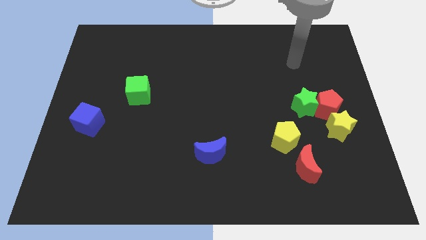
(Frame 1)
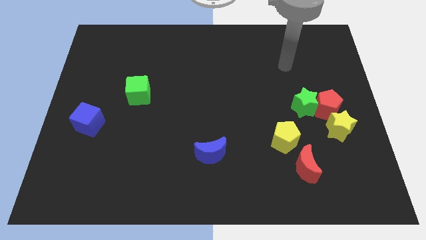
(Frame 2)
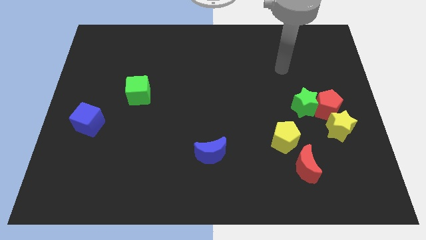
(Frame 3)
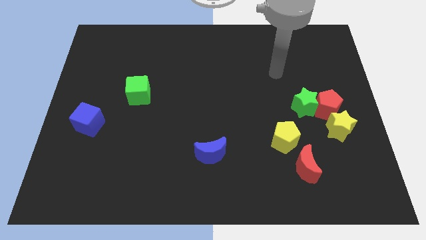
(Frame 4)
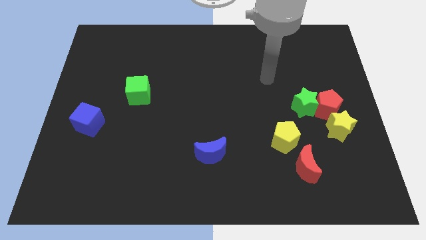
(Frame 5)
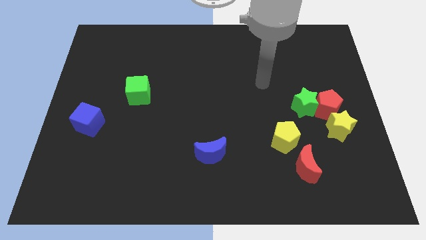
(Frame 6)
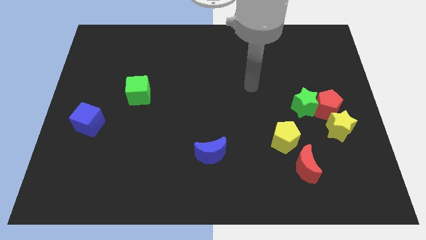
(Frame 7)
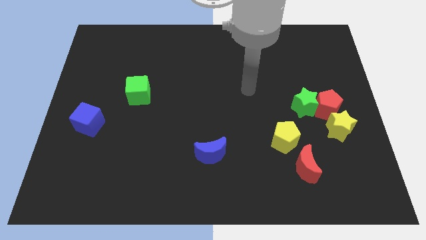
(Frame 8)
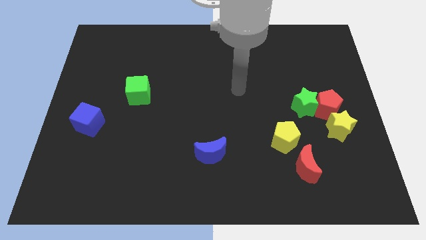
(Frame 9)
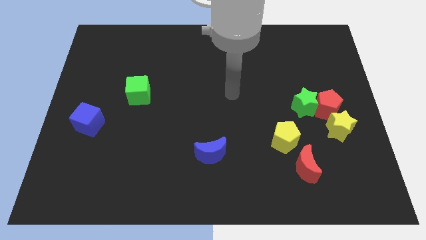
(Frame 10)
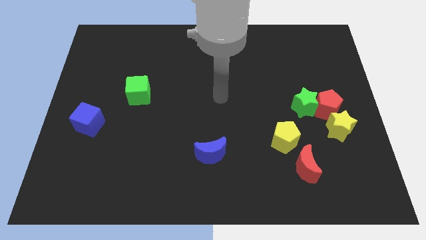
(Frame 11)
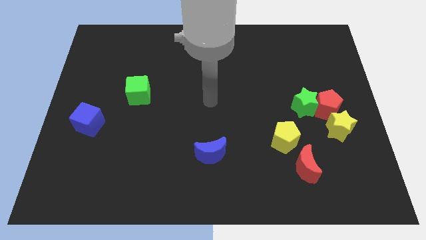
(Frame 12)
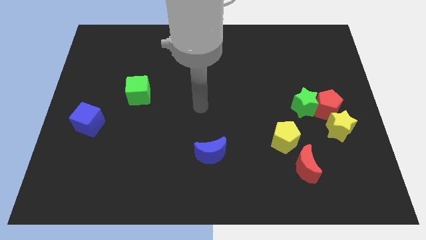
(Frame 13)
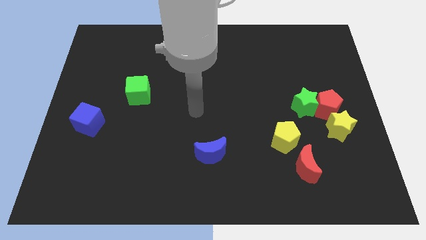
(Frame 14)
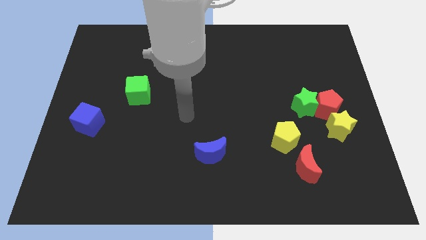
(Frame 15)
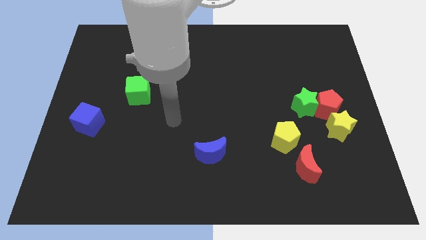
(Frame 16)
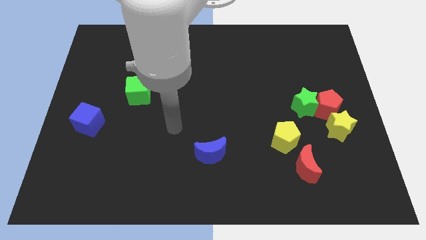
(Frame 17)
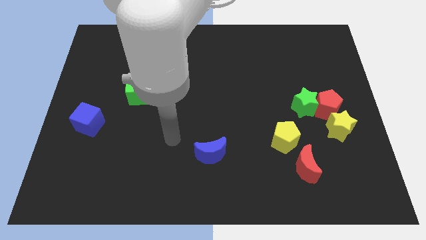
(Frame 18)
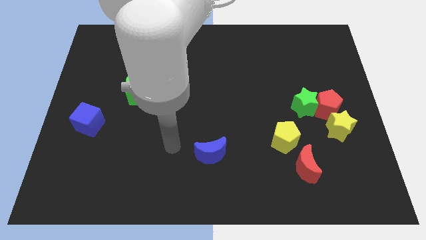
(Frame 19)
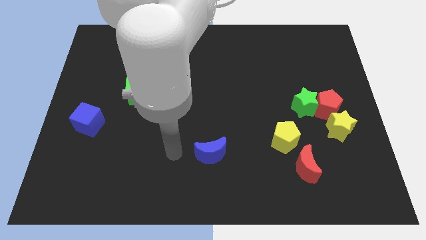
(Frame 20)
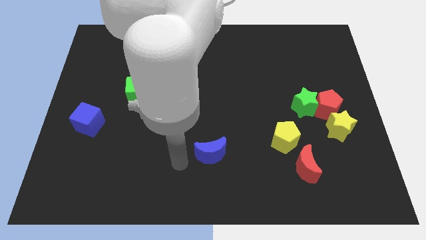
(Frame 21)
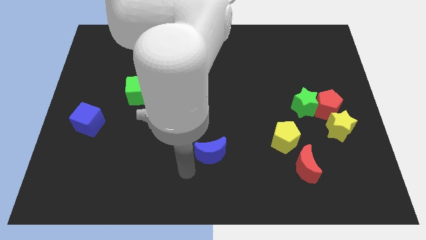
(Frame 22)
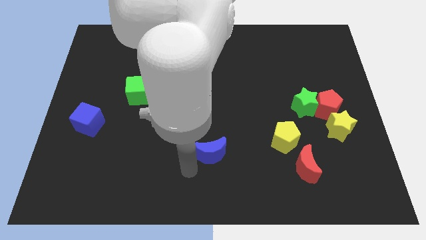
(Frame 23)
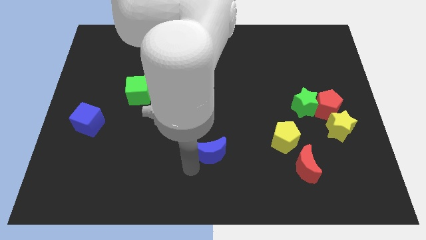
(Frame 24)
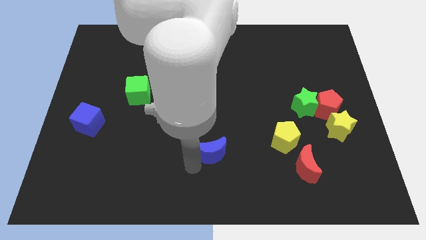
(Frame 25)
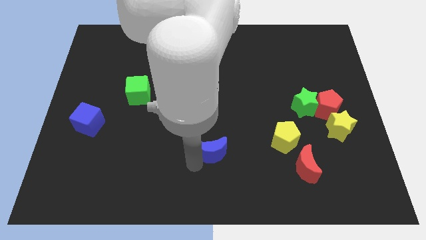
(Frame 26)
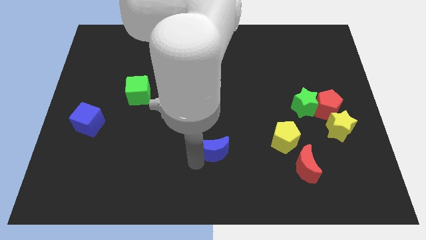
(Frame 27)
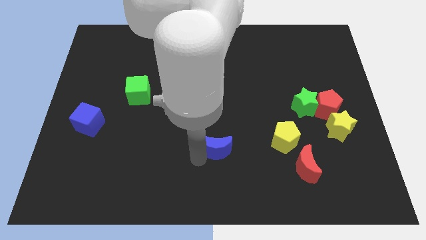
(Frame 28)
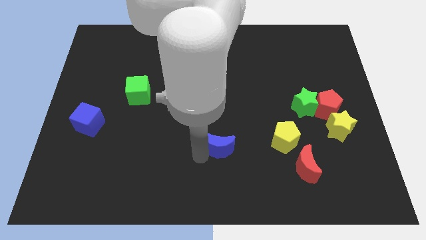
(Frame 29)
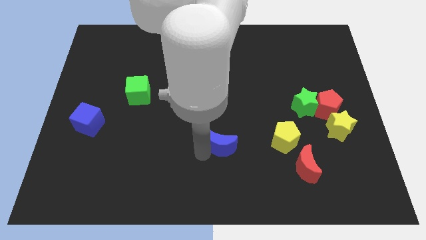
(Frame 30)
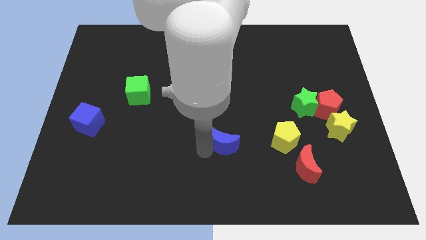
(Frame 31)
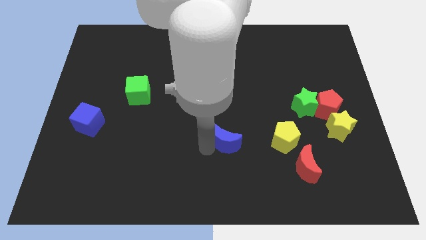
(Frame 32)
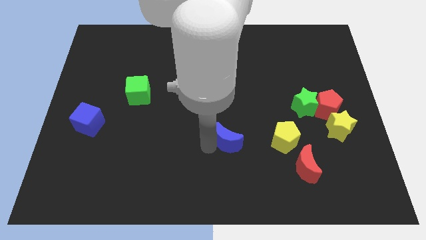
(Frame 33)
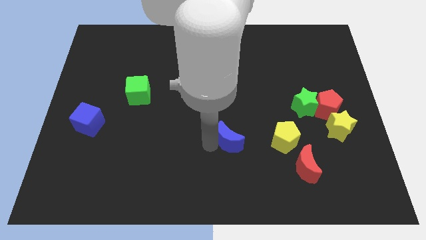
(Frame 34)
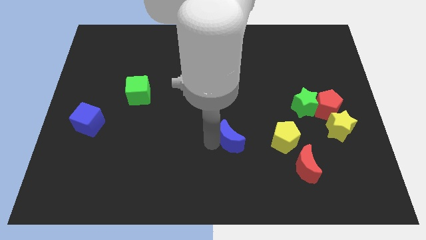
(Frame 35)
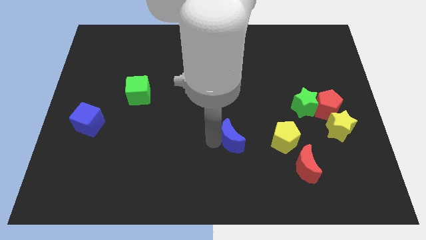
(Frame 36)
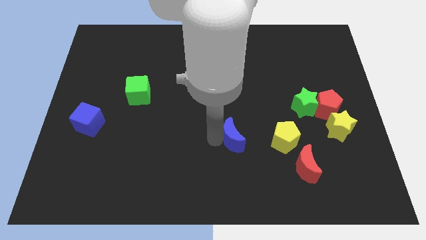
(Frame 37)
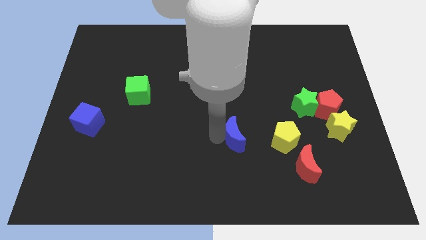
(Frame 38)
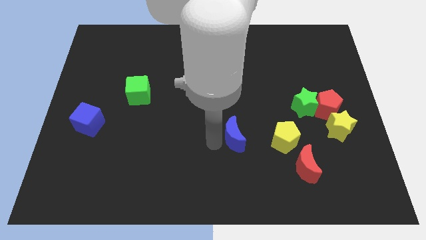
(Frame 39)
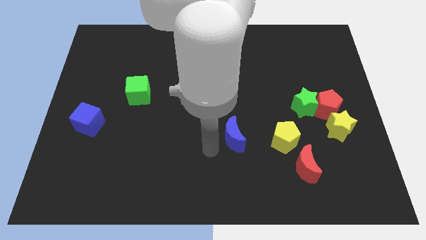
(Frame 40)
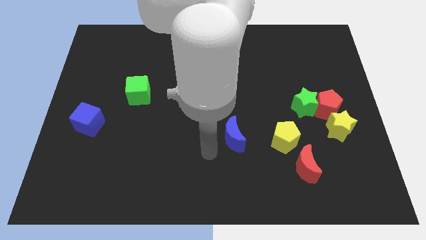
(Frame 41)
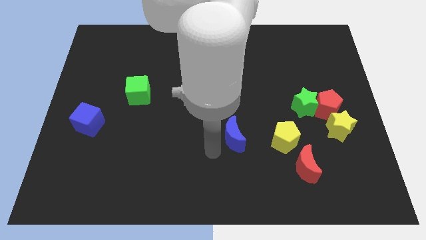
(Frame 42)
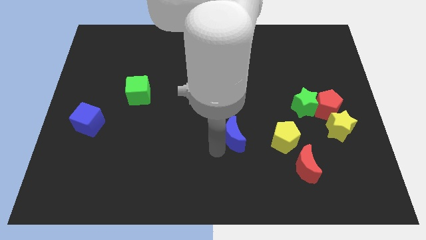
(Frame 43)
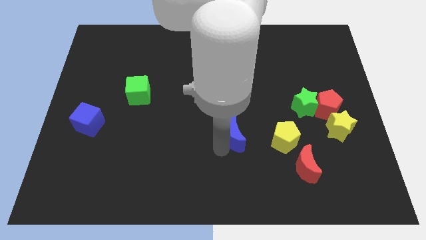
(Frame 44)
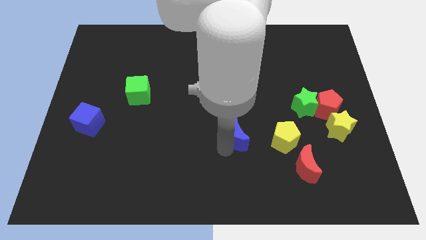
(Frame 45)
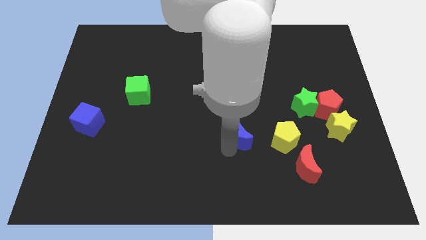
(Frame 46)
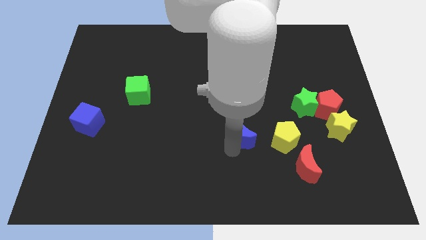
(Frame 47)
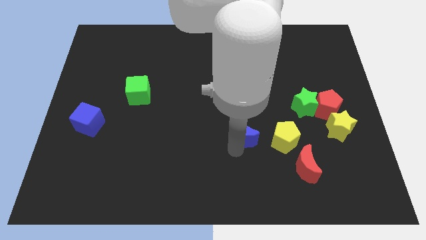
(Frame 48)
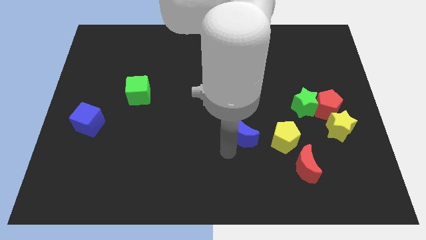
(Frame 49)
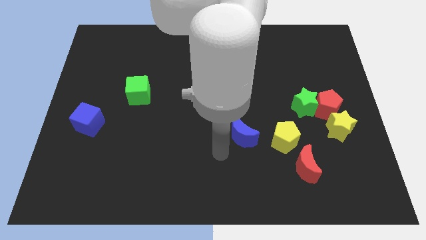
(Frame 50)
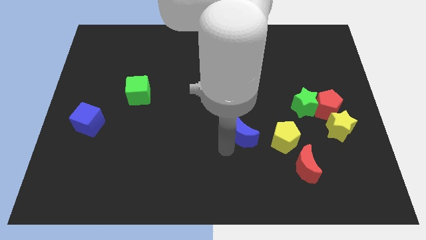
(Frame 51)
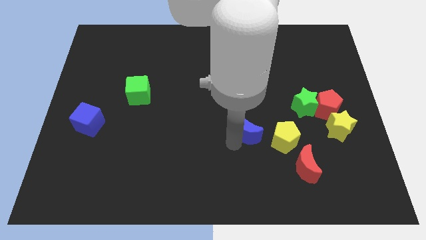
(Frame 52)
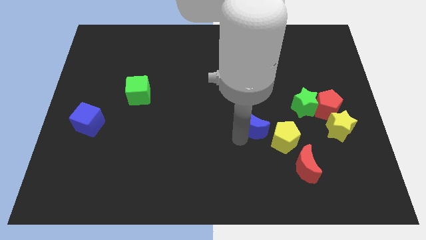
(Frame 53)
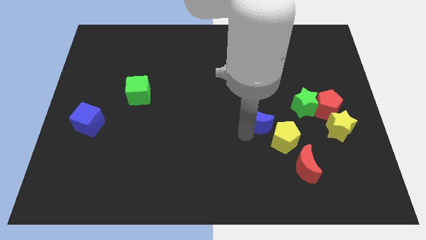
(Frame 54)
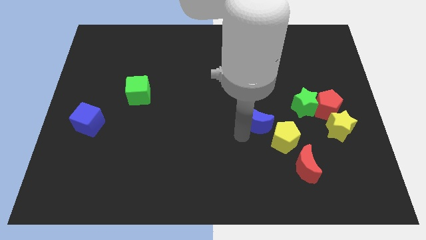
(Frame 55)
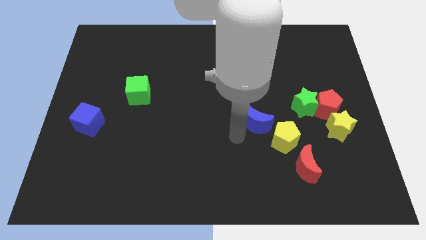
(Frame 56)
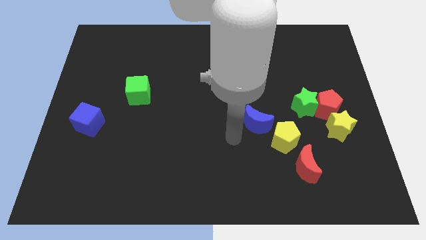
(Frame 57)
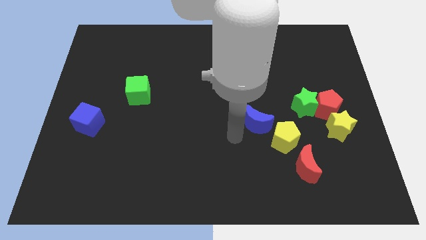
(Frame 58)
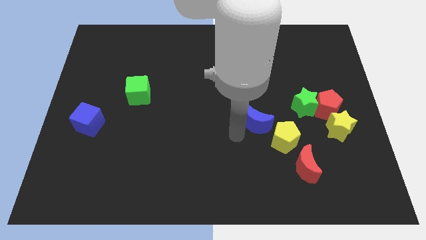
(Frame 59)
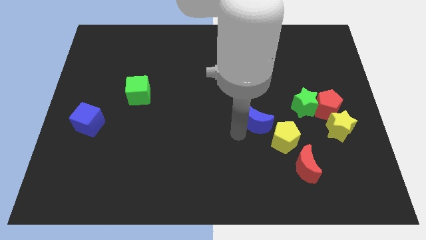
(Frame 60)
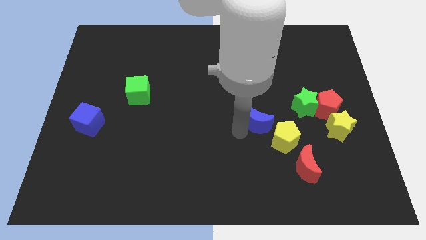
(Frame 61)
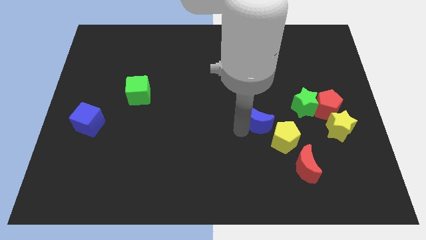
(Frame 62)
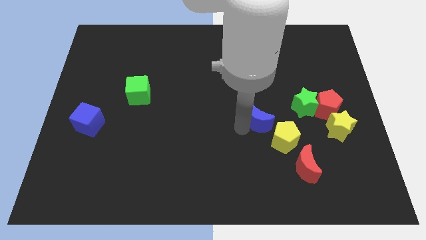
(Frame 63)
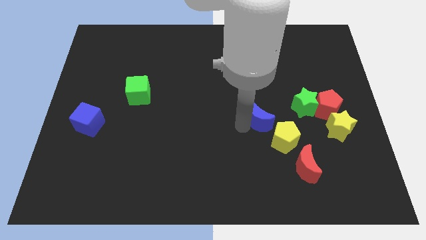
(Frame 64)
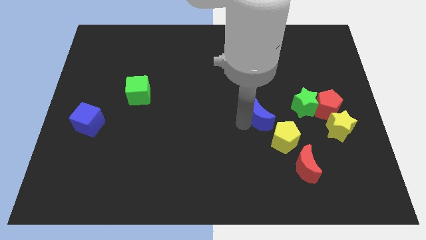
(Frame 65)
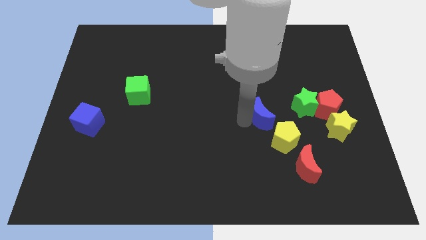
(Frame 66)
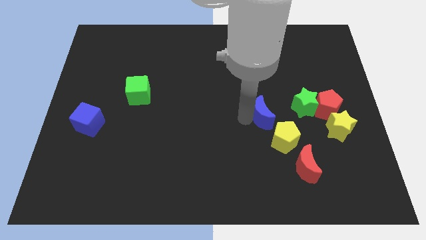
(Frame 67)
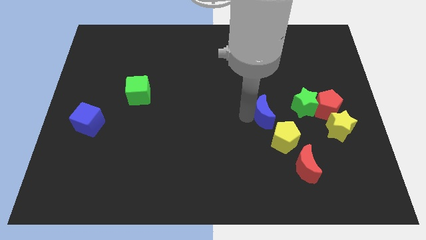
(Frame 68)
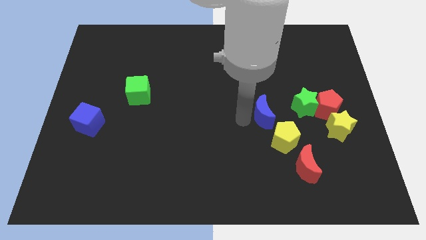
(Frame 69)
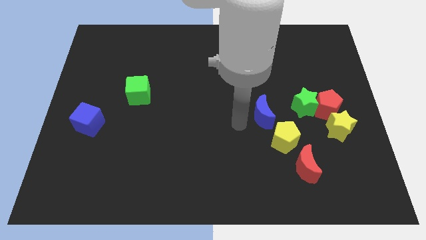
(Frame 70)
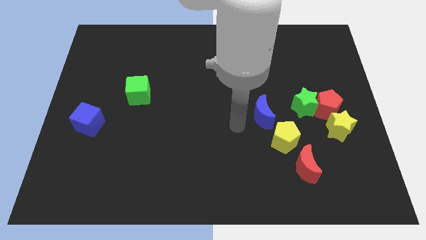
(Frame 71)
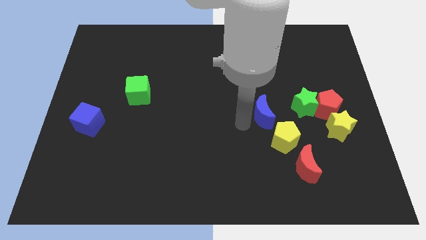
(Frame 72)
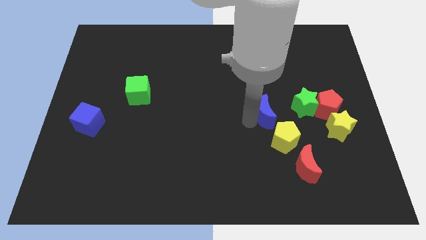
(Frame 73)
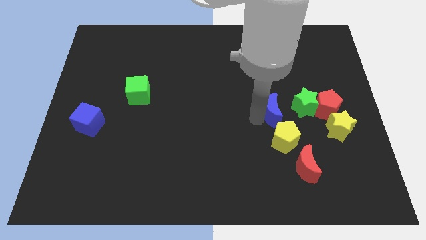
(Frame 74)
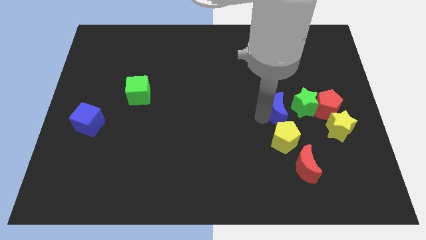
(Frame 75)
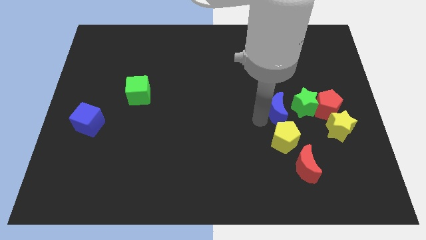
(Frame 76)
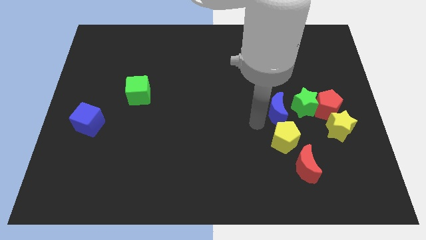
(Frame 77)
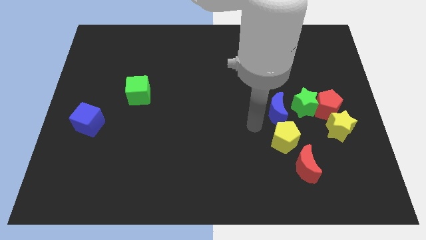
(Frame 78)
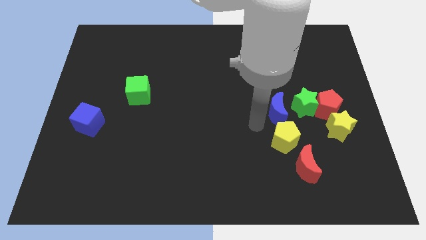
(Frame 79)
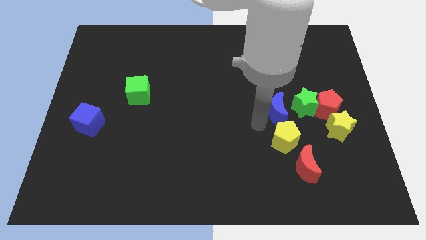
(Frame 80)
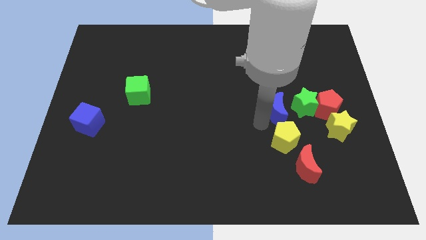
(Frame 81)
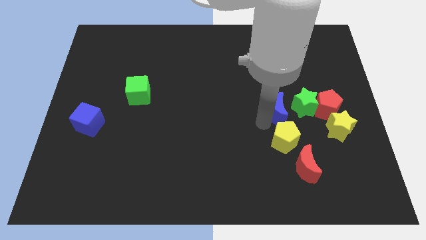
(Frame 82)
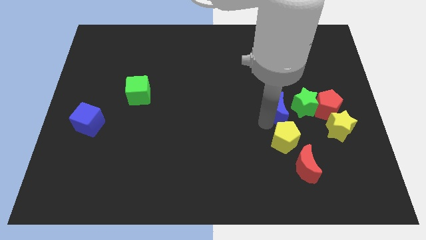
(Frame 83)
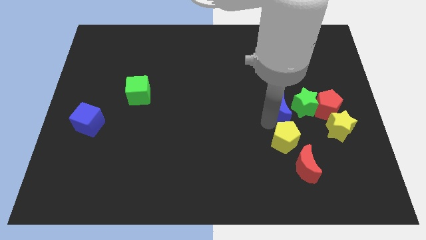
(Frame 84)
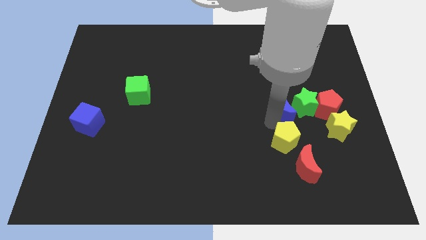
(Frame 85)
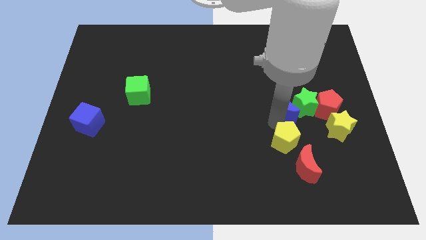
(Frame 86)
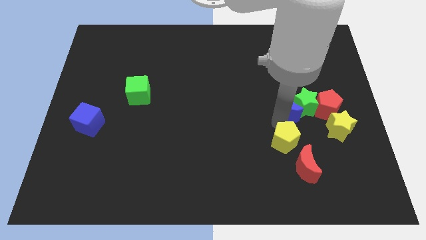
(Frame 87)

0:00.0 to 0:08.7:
slide the blue moon up and right diagonally
